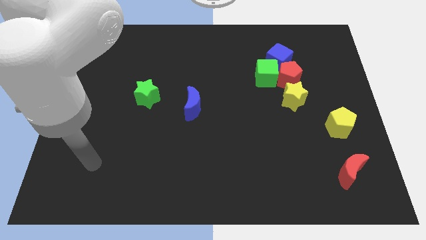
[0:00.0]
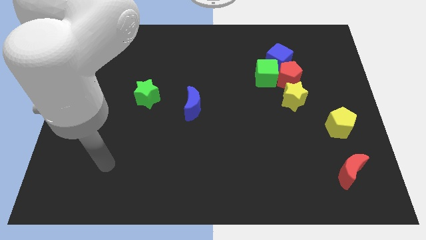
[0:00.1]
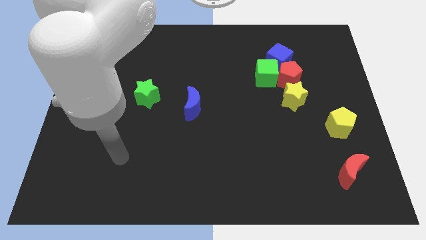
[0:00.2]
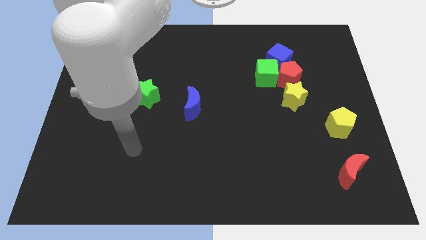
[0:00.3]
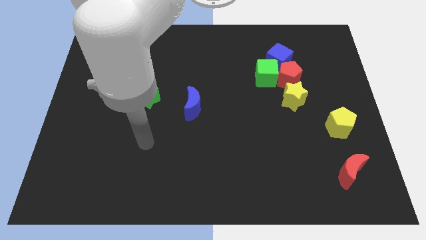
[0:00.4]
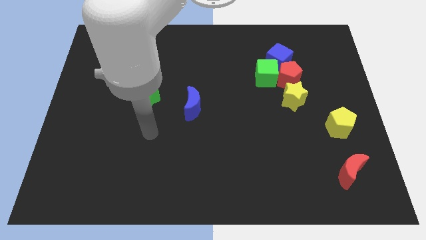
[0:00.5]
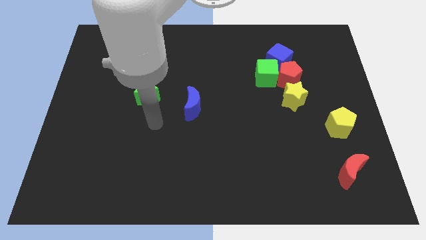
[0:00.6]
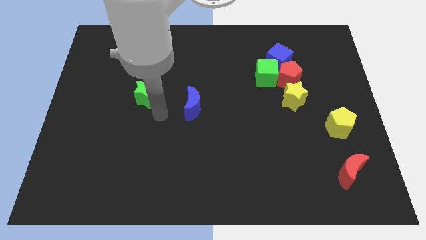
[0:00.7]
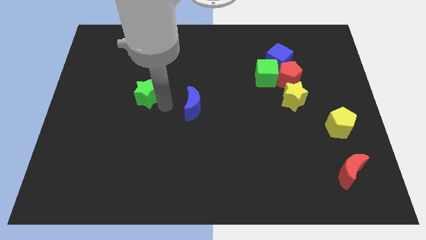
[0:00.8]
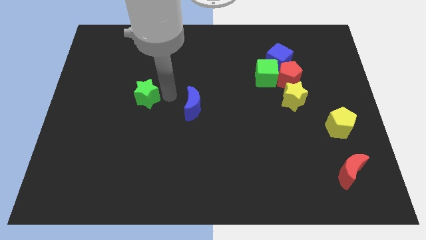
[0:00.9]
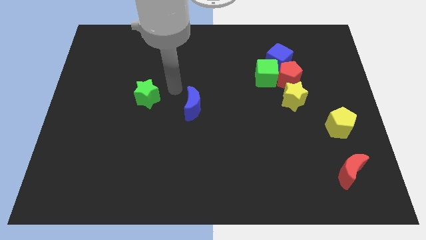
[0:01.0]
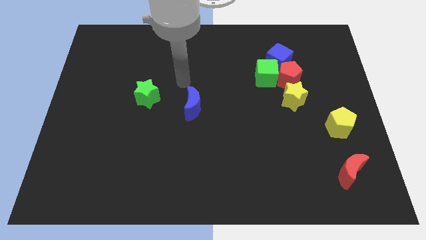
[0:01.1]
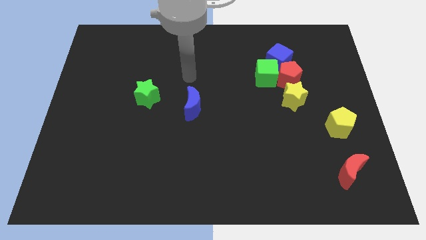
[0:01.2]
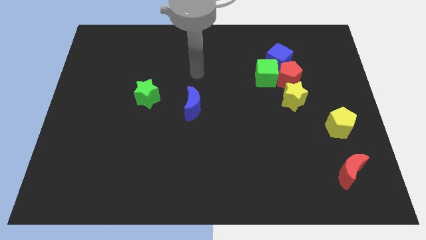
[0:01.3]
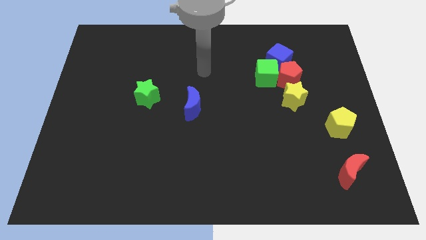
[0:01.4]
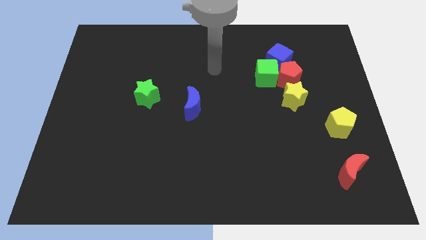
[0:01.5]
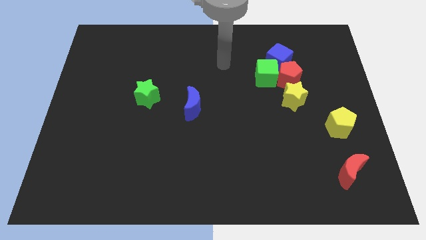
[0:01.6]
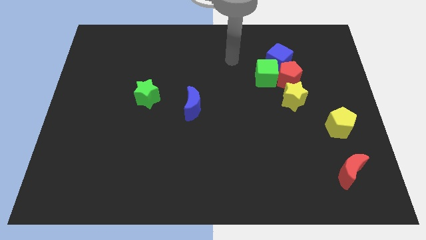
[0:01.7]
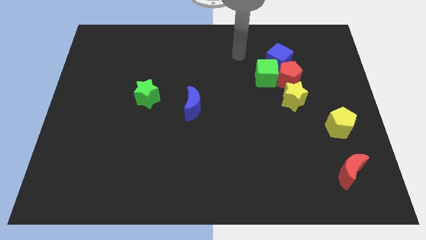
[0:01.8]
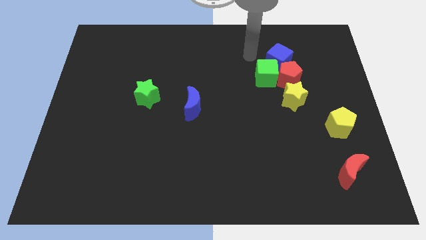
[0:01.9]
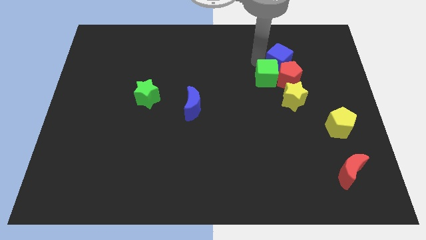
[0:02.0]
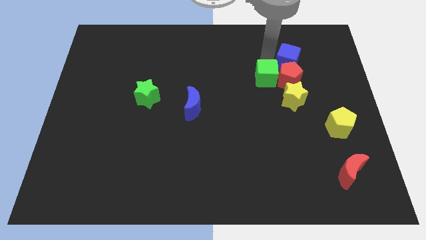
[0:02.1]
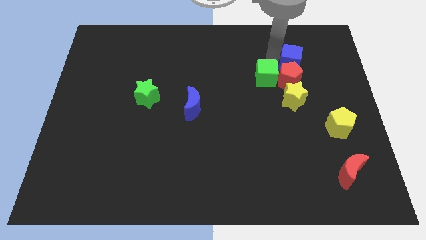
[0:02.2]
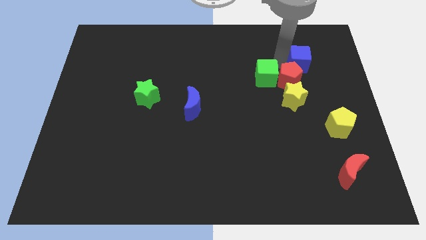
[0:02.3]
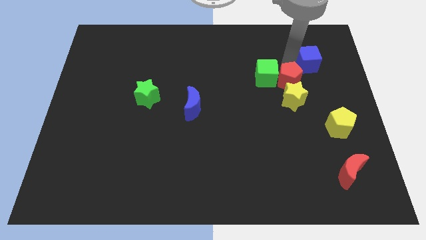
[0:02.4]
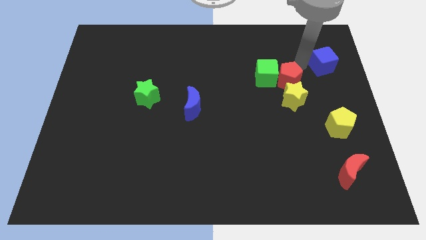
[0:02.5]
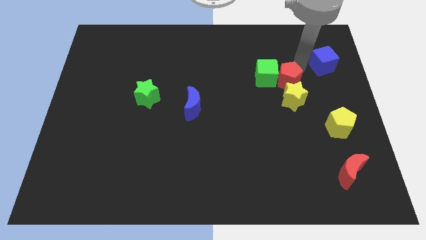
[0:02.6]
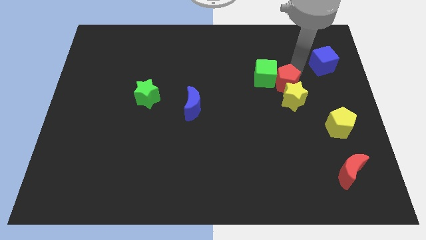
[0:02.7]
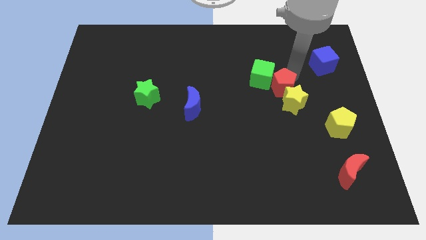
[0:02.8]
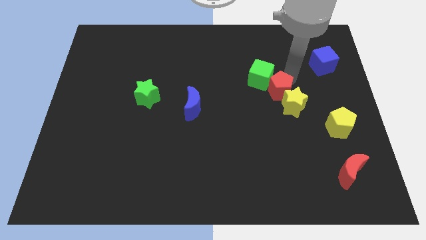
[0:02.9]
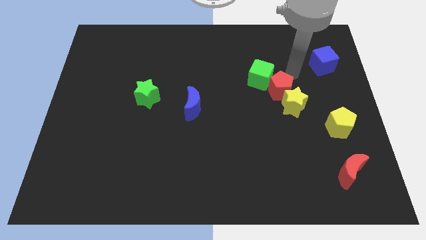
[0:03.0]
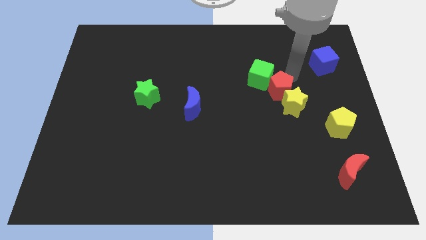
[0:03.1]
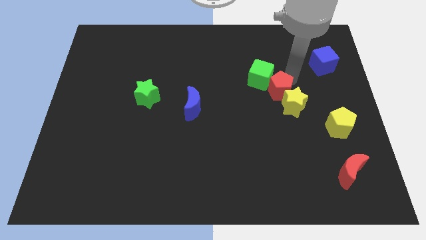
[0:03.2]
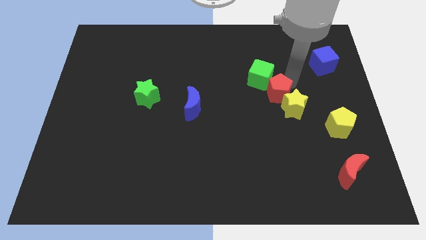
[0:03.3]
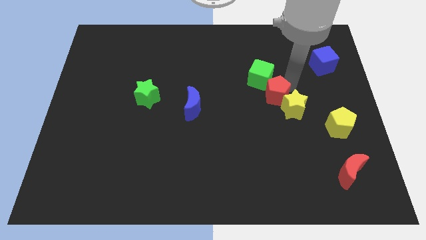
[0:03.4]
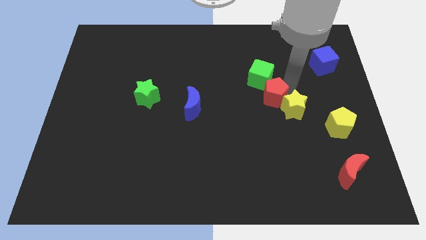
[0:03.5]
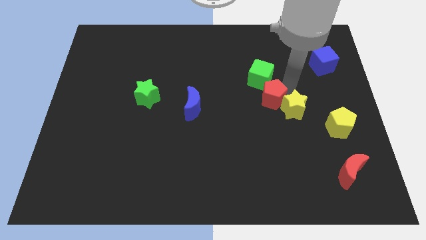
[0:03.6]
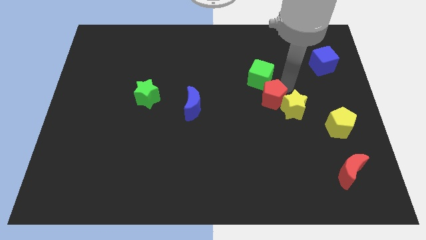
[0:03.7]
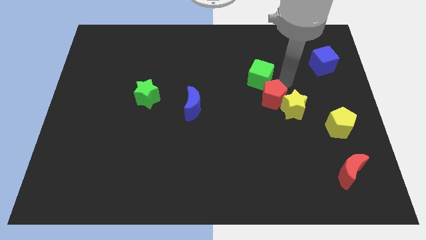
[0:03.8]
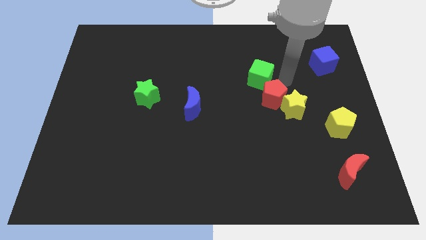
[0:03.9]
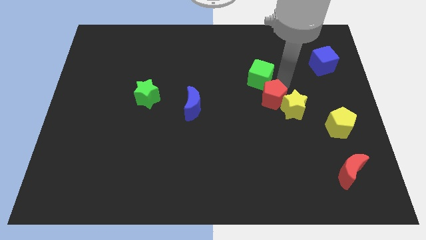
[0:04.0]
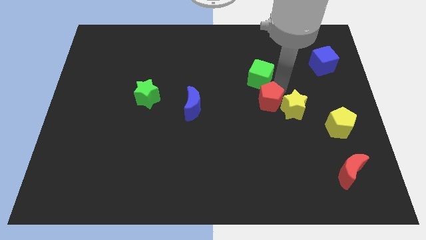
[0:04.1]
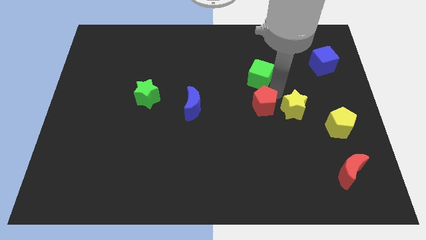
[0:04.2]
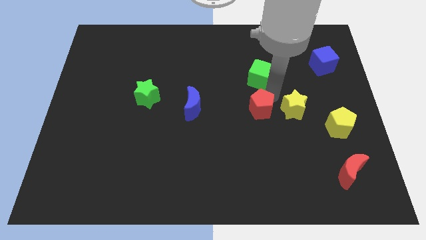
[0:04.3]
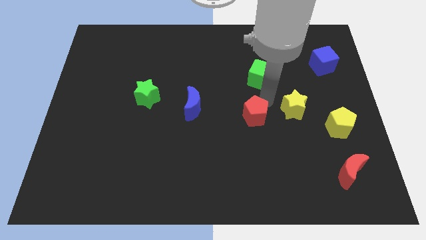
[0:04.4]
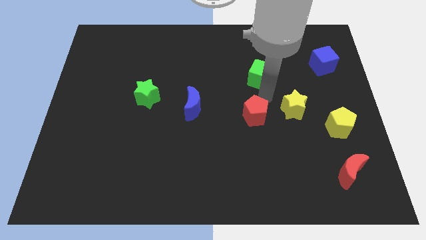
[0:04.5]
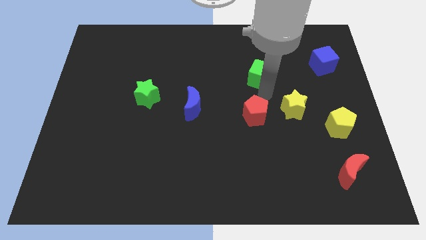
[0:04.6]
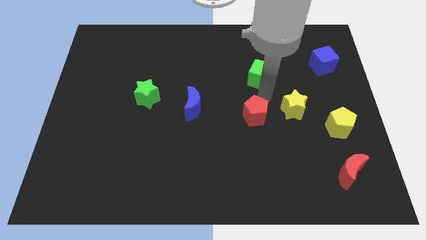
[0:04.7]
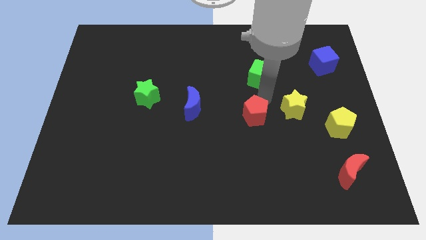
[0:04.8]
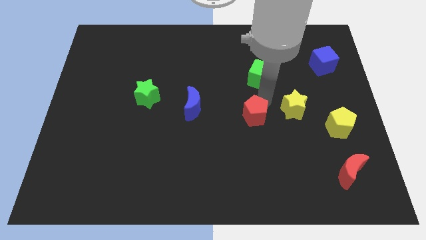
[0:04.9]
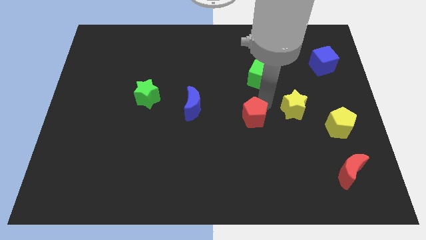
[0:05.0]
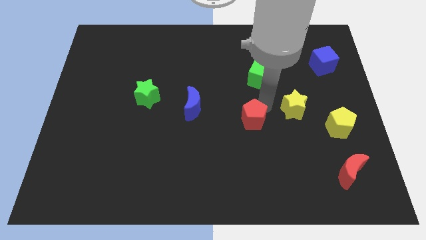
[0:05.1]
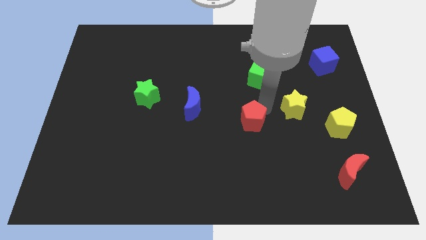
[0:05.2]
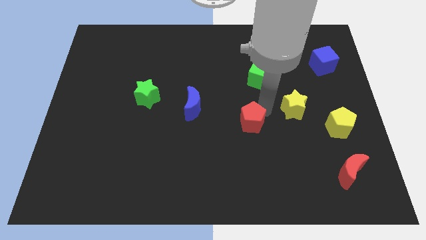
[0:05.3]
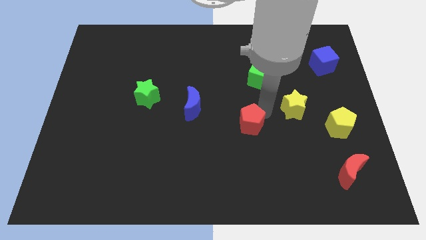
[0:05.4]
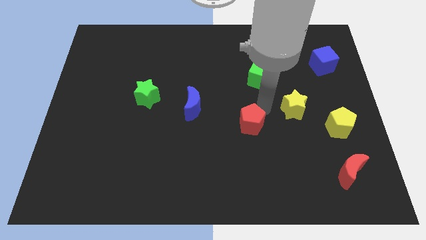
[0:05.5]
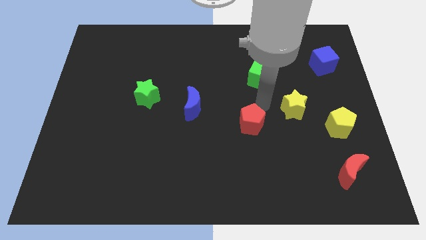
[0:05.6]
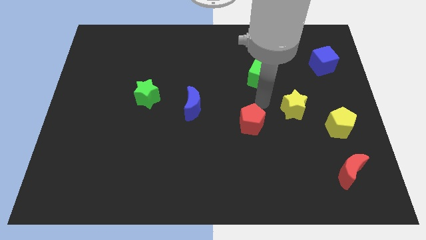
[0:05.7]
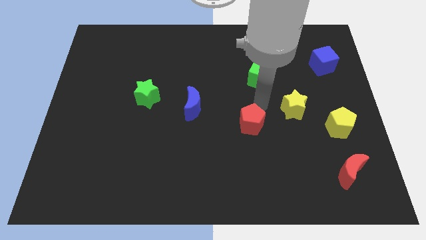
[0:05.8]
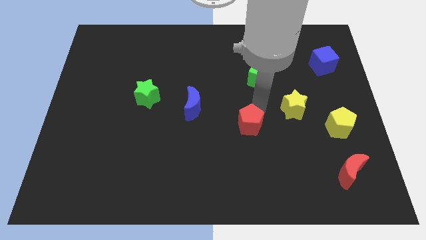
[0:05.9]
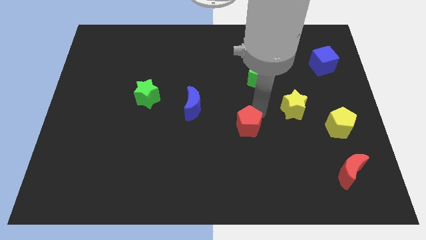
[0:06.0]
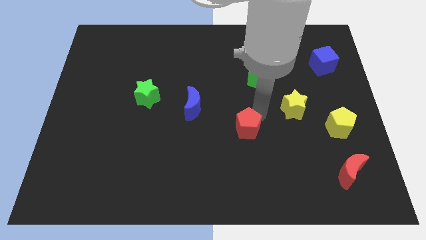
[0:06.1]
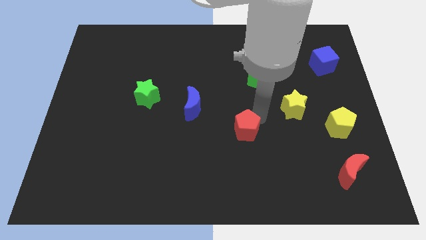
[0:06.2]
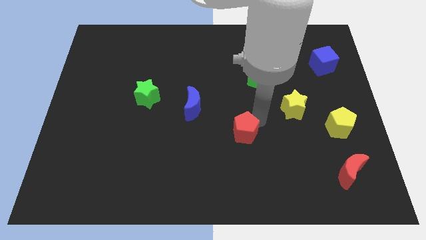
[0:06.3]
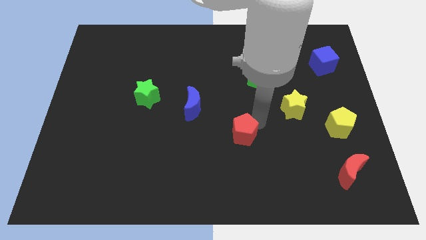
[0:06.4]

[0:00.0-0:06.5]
push the red pentagon down and to the left diagonally

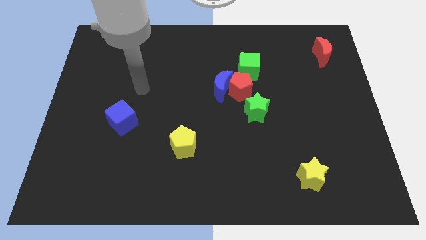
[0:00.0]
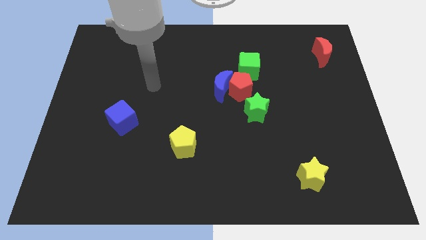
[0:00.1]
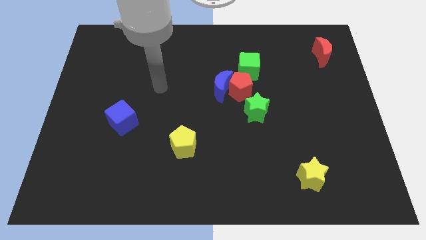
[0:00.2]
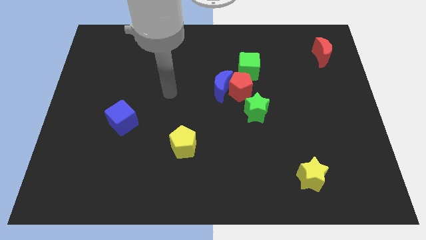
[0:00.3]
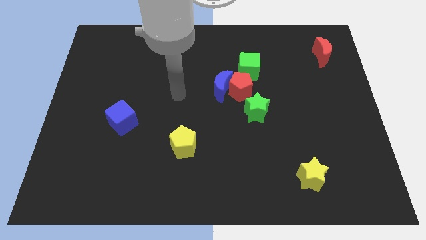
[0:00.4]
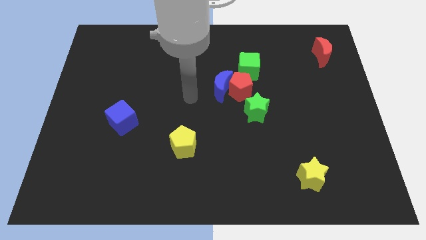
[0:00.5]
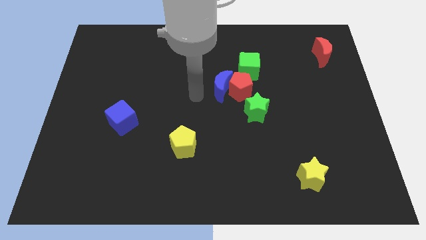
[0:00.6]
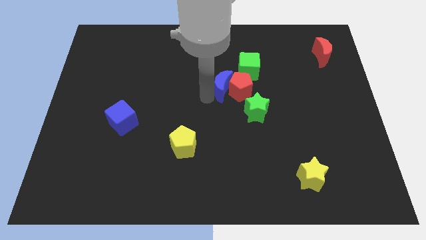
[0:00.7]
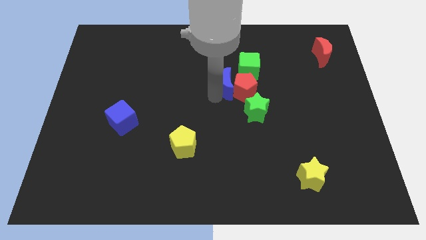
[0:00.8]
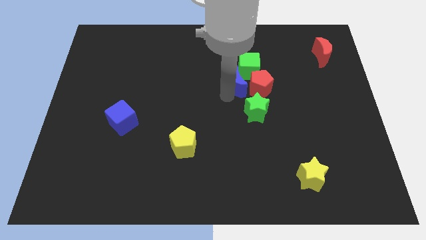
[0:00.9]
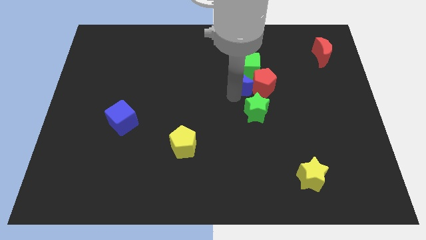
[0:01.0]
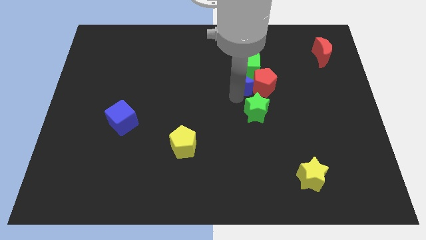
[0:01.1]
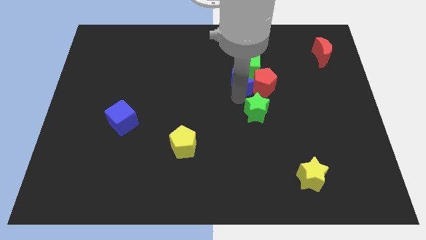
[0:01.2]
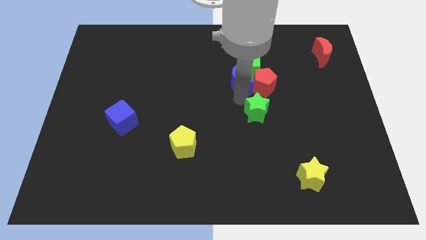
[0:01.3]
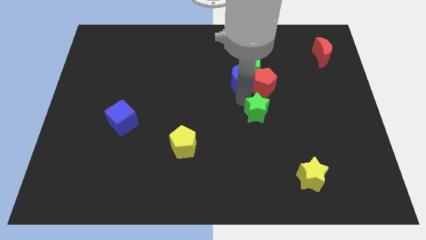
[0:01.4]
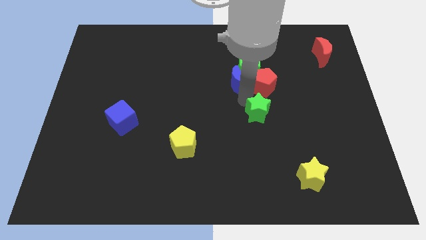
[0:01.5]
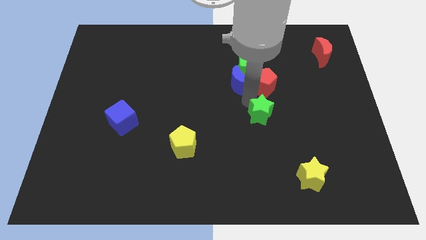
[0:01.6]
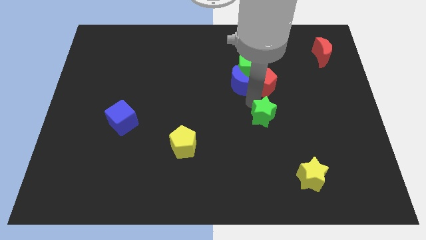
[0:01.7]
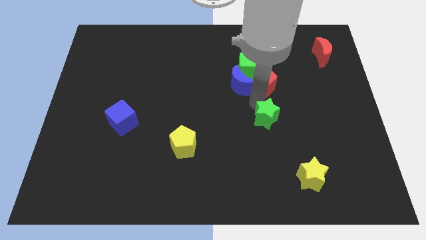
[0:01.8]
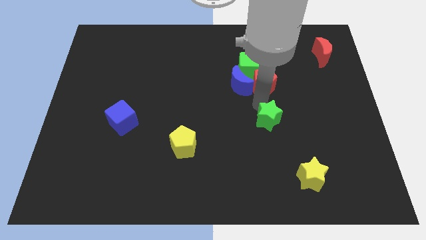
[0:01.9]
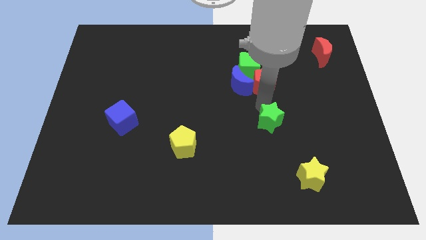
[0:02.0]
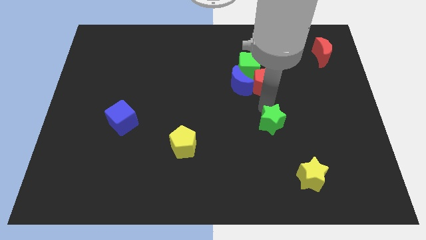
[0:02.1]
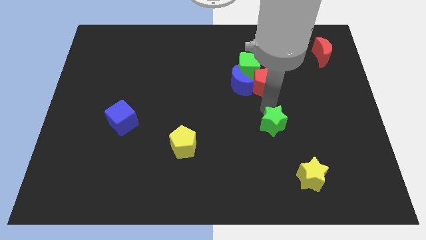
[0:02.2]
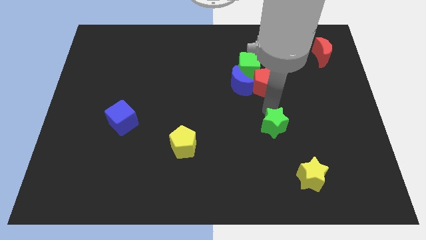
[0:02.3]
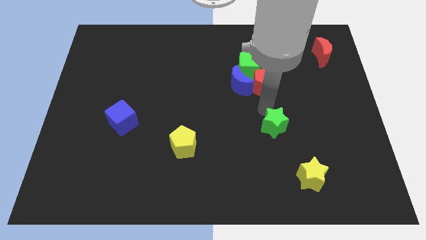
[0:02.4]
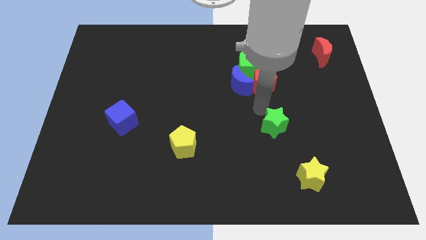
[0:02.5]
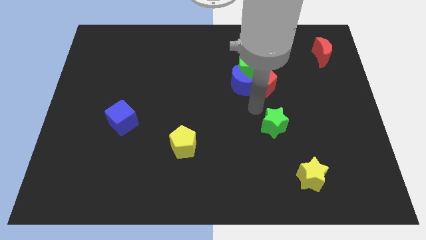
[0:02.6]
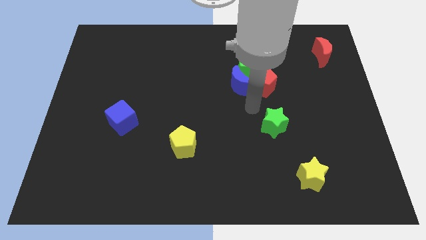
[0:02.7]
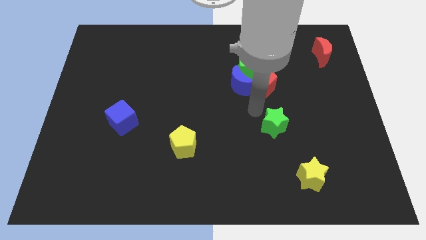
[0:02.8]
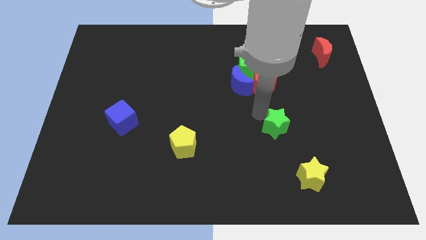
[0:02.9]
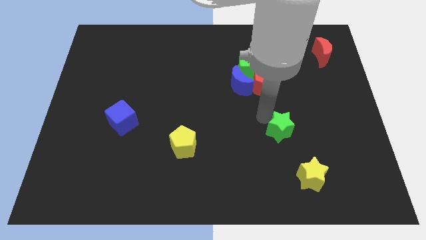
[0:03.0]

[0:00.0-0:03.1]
slide the green star downwards and then right somewhat
